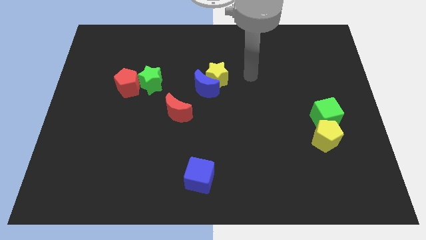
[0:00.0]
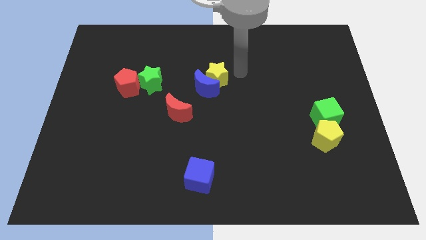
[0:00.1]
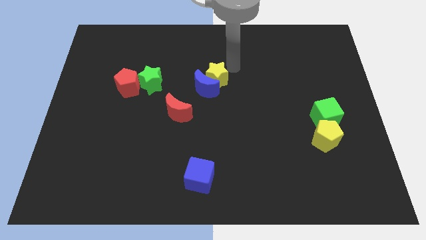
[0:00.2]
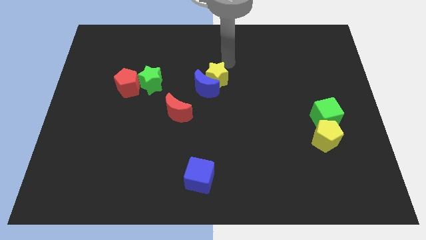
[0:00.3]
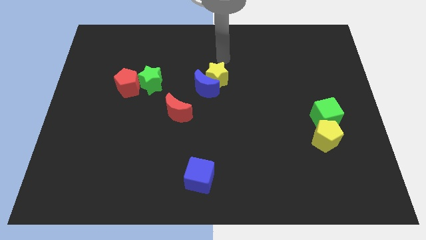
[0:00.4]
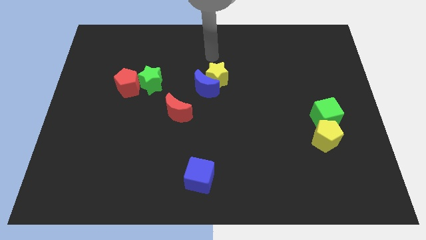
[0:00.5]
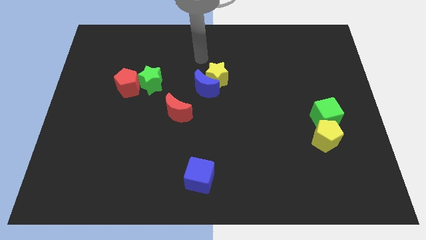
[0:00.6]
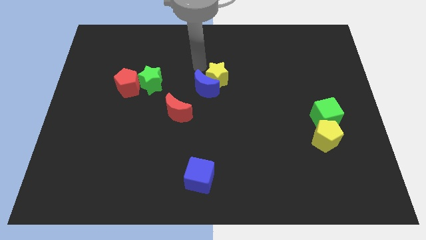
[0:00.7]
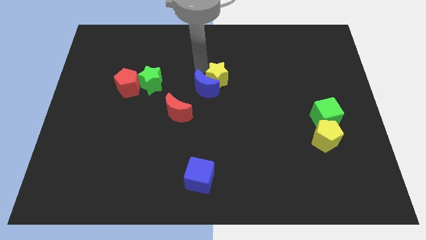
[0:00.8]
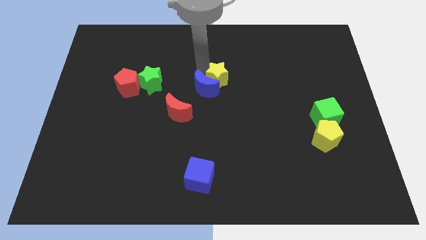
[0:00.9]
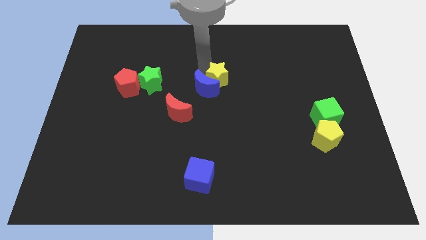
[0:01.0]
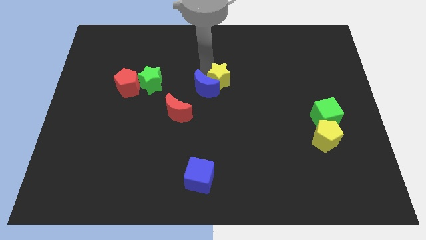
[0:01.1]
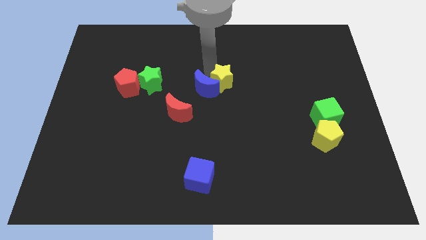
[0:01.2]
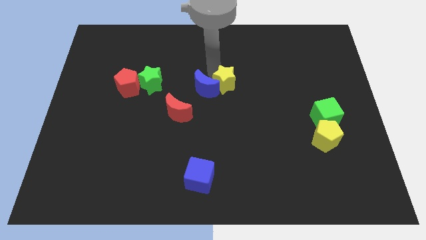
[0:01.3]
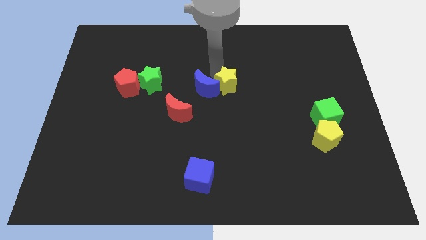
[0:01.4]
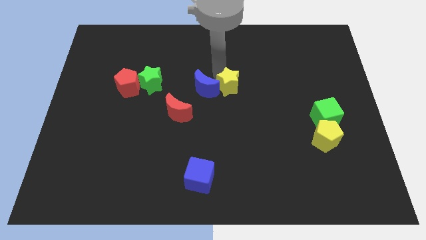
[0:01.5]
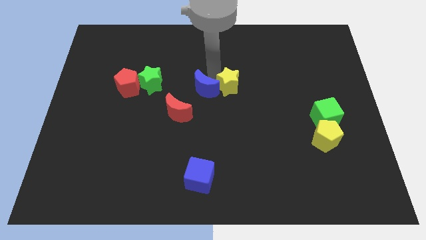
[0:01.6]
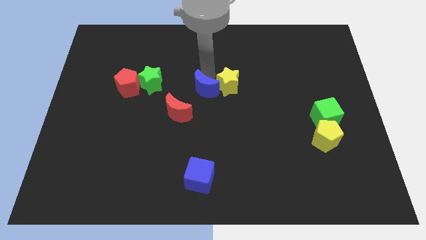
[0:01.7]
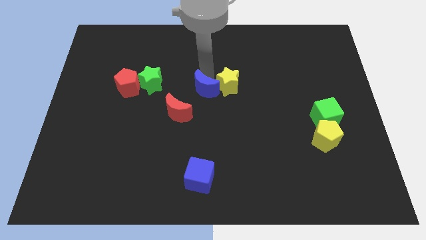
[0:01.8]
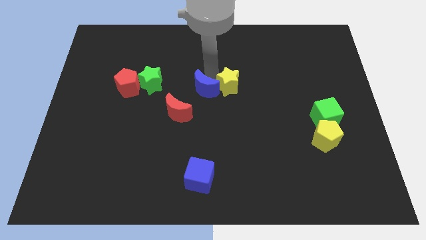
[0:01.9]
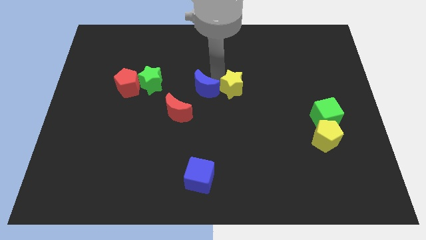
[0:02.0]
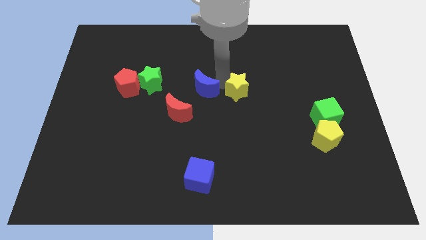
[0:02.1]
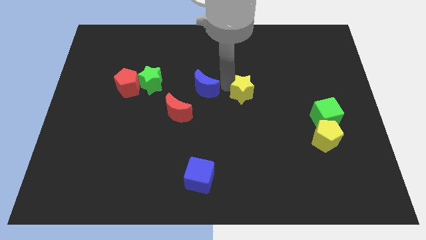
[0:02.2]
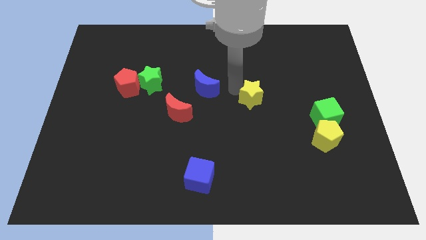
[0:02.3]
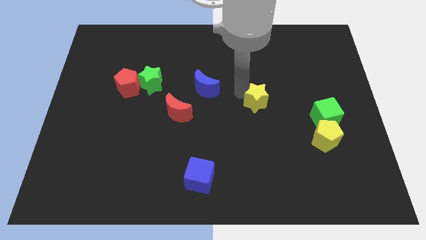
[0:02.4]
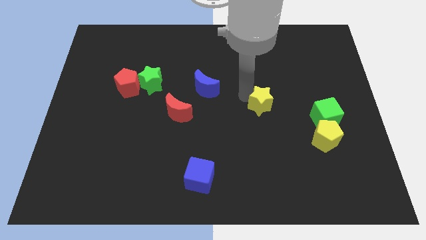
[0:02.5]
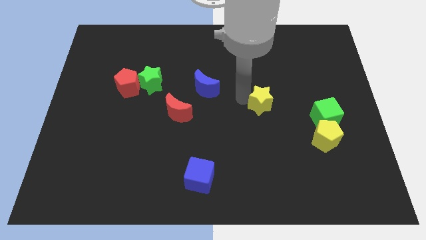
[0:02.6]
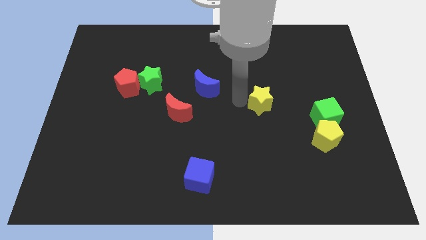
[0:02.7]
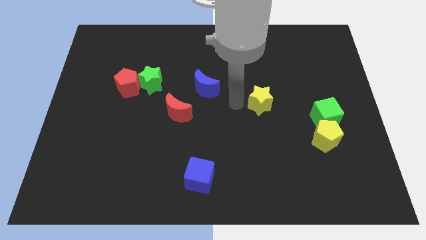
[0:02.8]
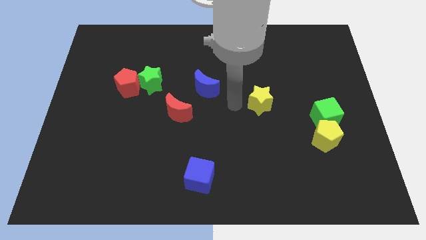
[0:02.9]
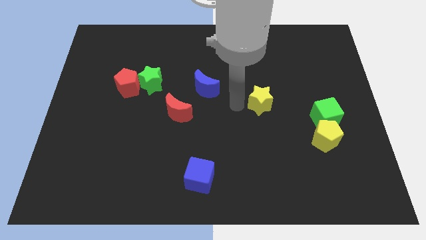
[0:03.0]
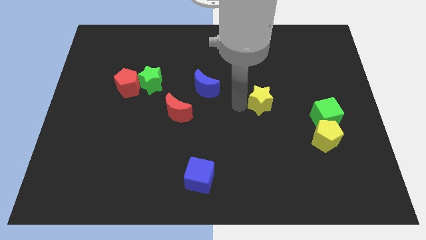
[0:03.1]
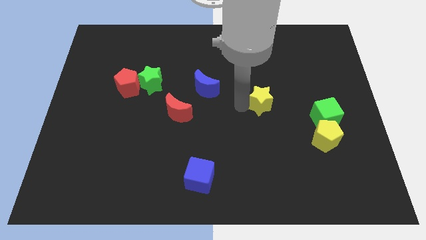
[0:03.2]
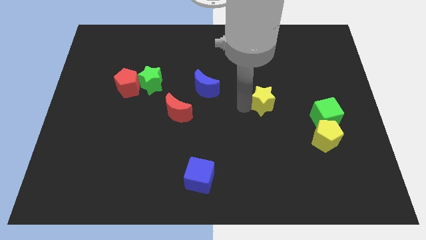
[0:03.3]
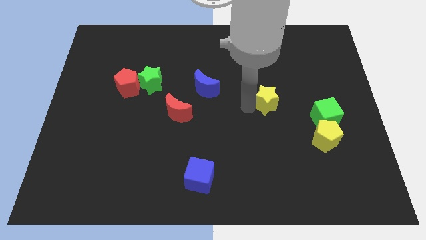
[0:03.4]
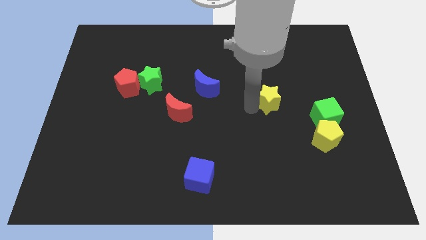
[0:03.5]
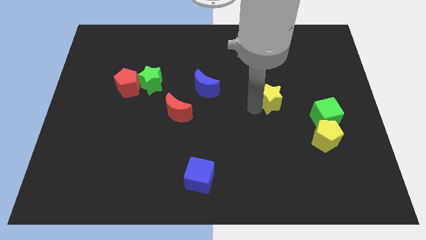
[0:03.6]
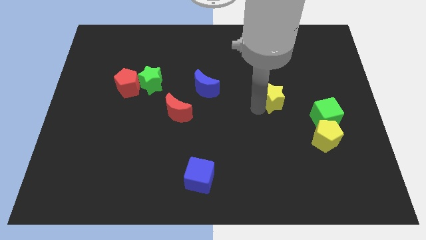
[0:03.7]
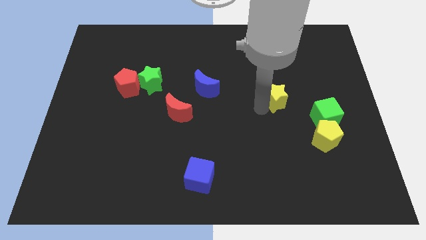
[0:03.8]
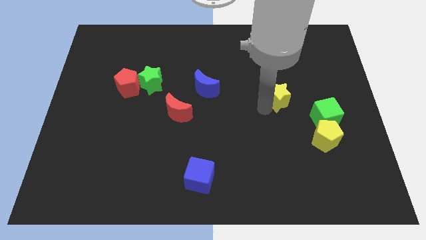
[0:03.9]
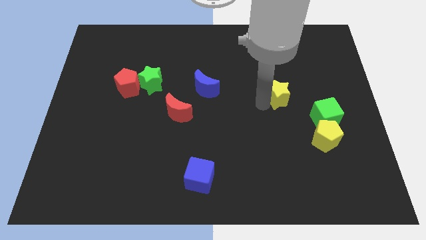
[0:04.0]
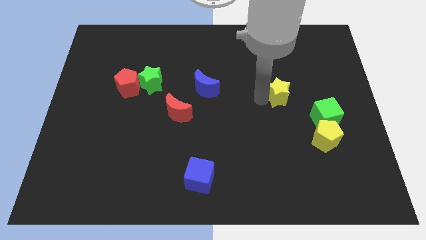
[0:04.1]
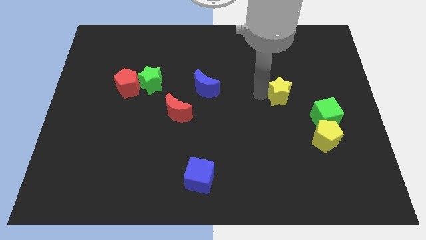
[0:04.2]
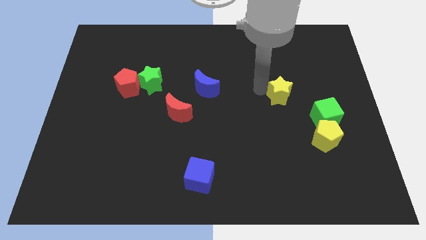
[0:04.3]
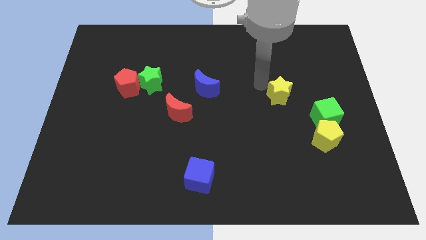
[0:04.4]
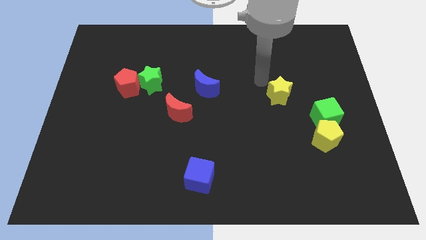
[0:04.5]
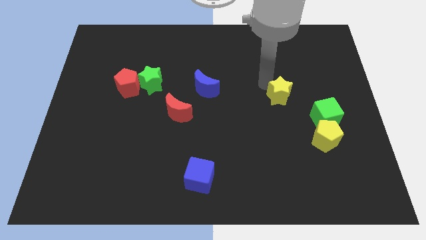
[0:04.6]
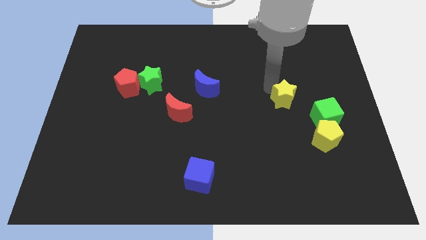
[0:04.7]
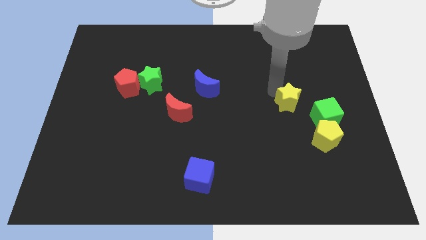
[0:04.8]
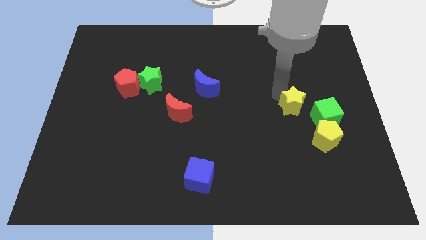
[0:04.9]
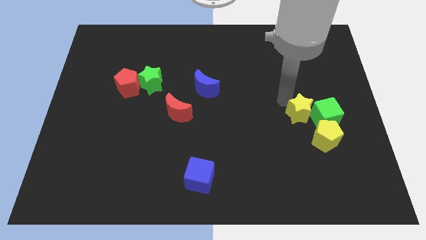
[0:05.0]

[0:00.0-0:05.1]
move the yellow star to the green cube

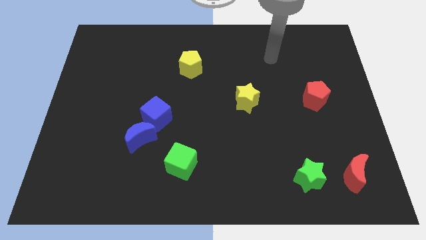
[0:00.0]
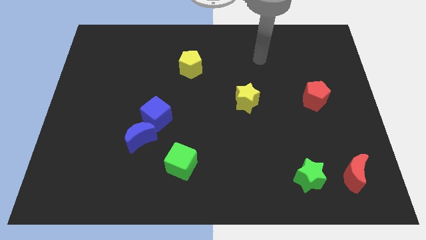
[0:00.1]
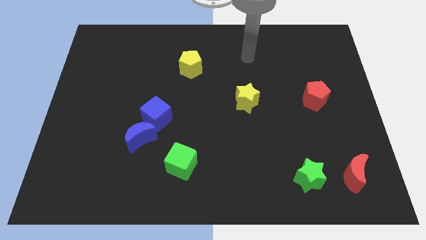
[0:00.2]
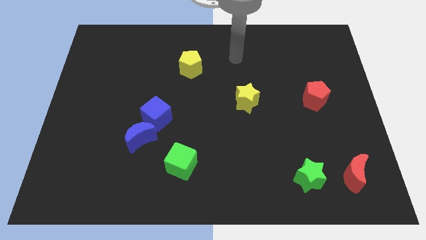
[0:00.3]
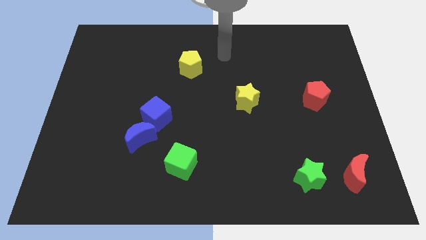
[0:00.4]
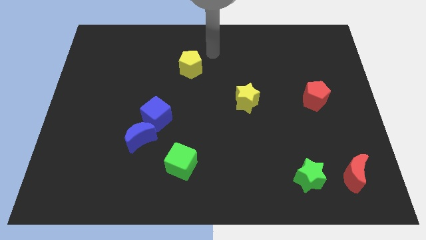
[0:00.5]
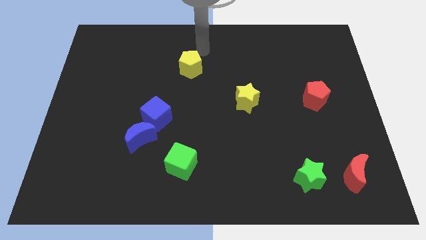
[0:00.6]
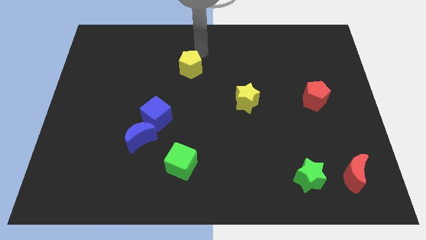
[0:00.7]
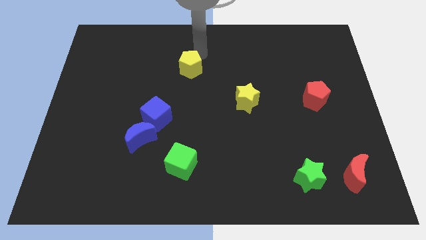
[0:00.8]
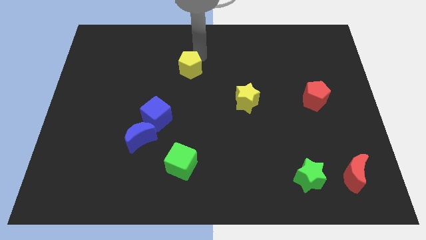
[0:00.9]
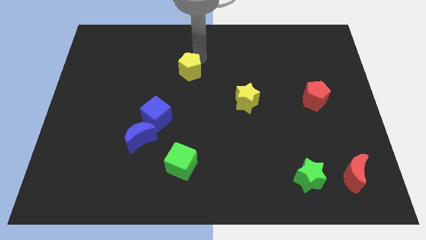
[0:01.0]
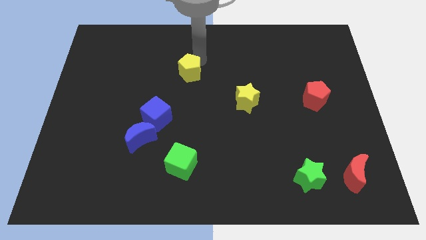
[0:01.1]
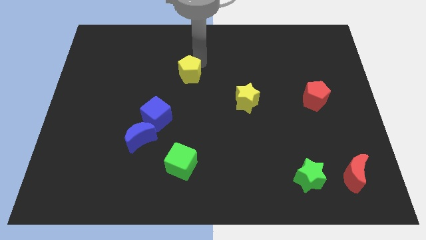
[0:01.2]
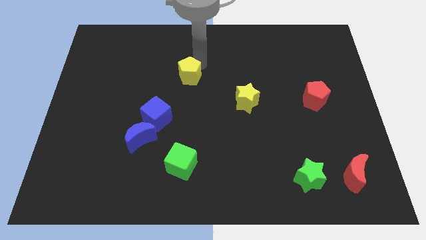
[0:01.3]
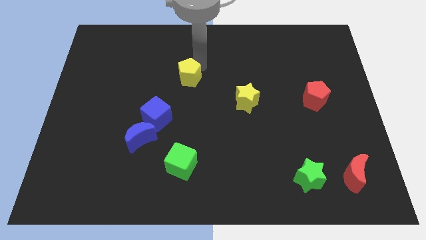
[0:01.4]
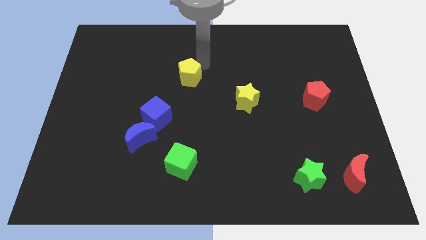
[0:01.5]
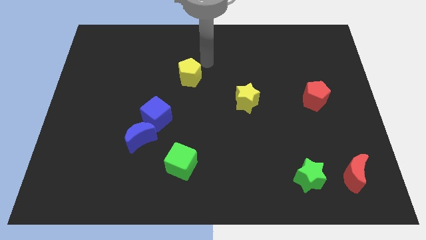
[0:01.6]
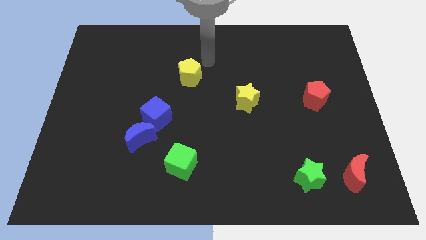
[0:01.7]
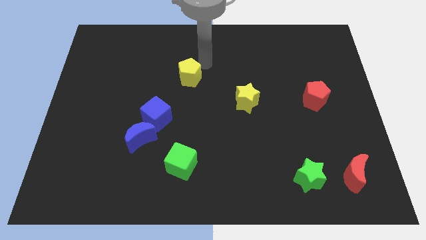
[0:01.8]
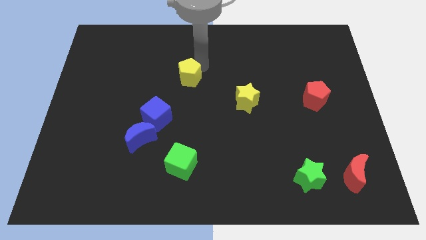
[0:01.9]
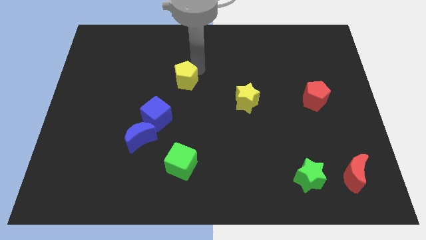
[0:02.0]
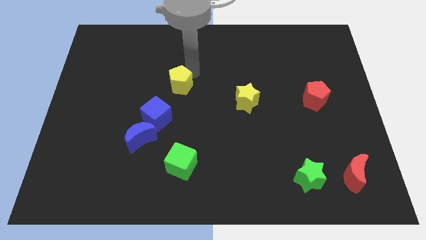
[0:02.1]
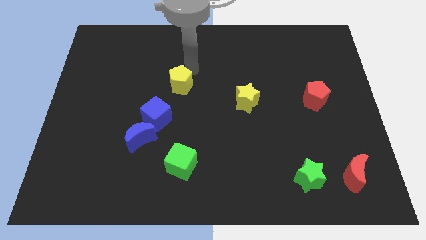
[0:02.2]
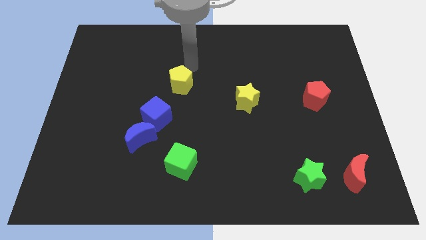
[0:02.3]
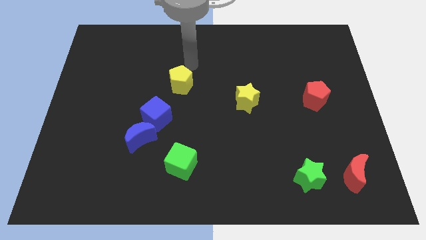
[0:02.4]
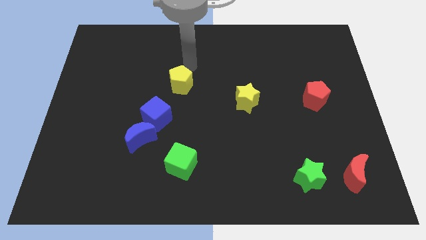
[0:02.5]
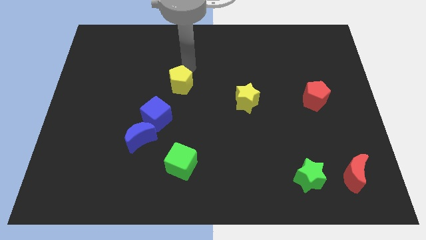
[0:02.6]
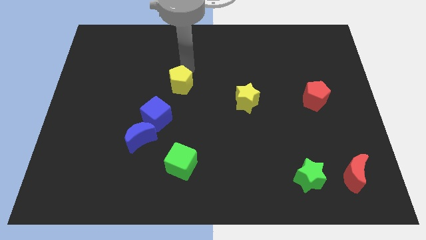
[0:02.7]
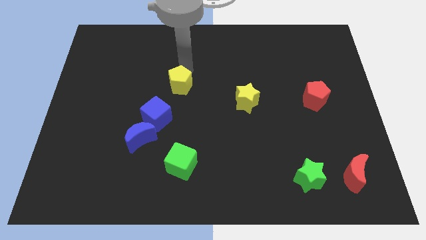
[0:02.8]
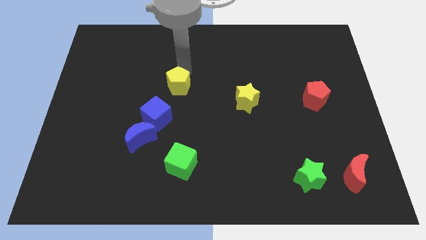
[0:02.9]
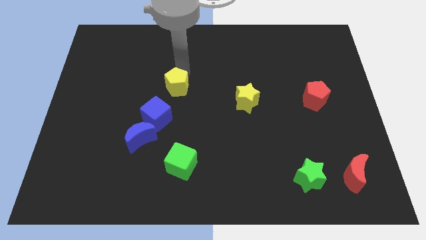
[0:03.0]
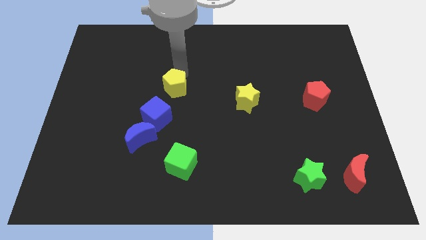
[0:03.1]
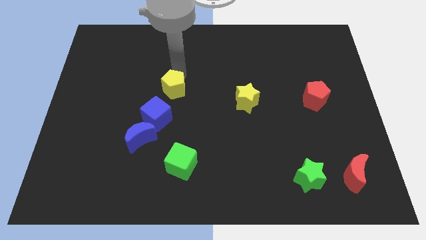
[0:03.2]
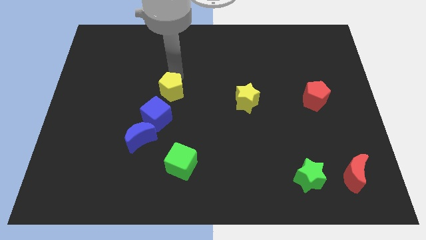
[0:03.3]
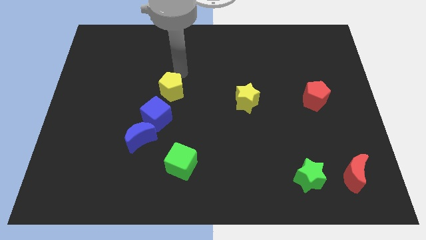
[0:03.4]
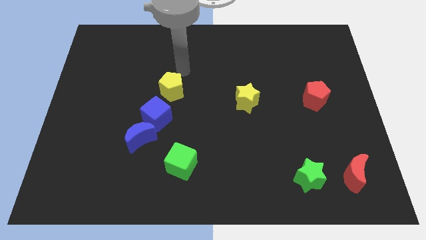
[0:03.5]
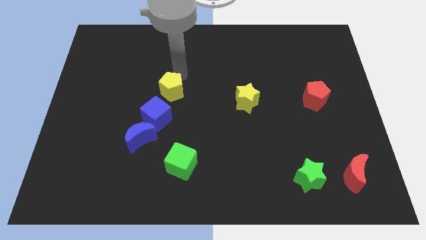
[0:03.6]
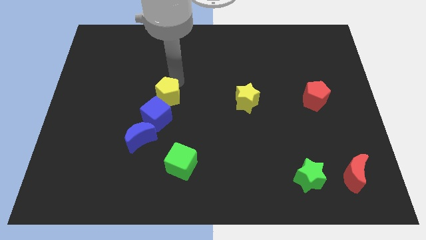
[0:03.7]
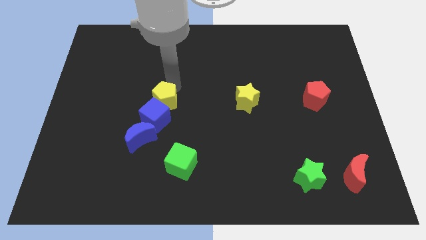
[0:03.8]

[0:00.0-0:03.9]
push the yellow pentagon towards the blue cube
